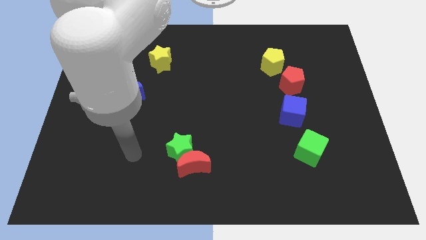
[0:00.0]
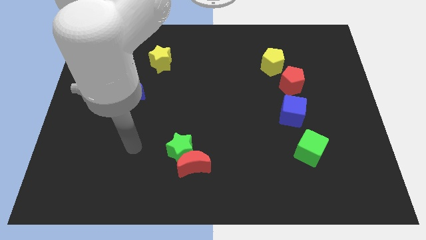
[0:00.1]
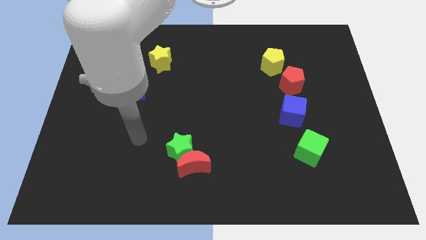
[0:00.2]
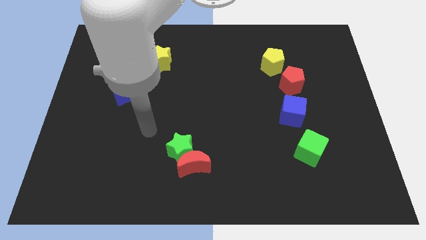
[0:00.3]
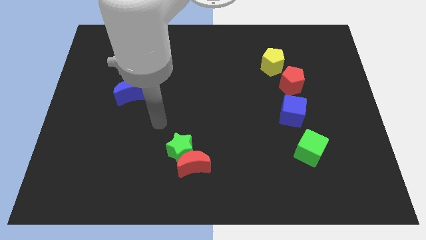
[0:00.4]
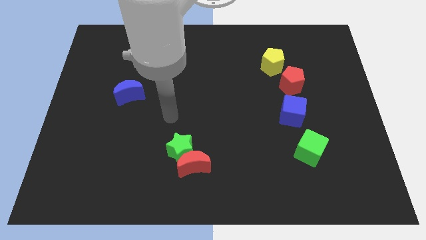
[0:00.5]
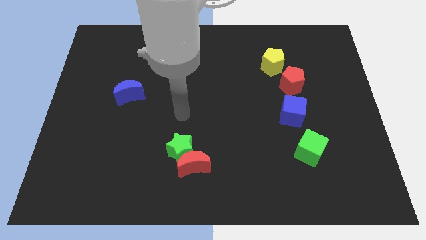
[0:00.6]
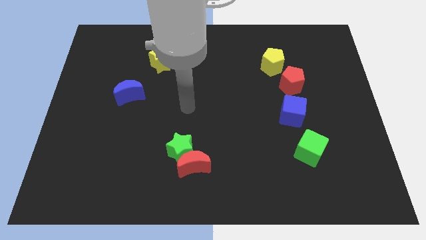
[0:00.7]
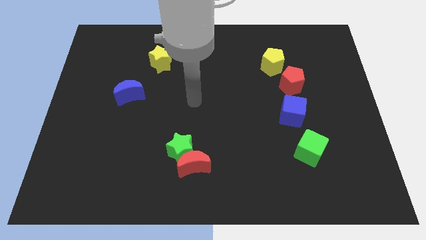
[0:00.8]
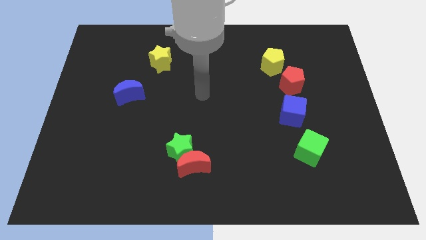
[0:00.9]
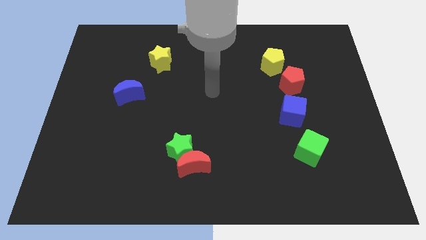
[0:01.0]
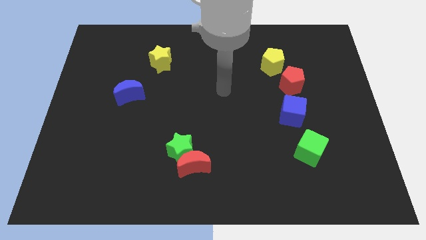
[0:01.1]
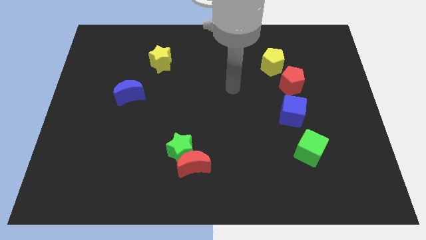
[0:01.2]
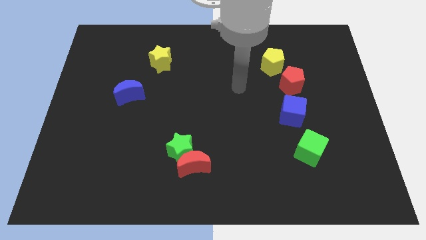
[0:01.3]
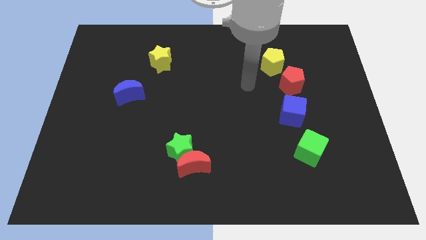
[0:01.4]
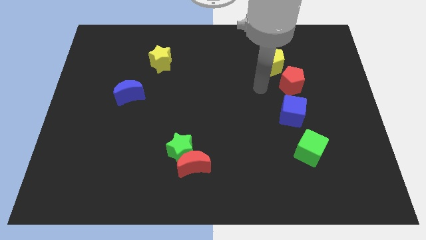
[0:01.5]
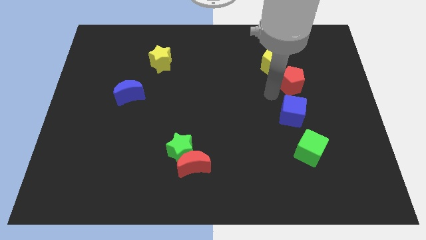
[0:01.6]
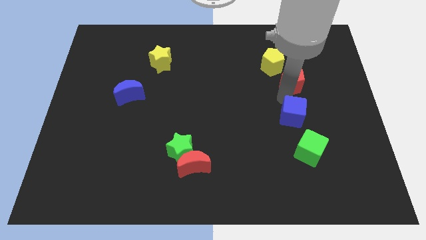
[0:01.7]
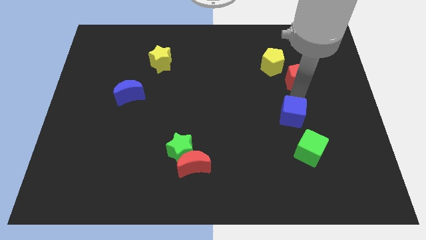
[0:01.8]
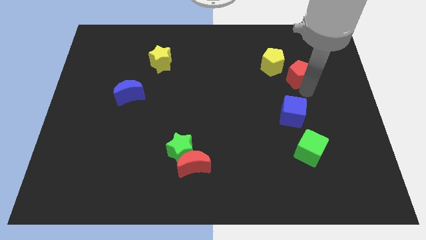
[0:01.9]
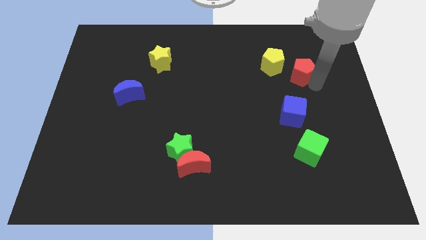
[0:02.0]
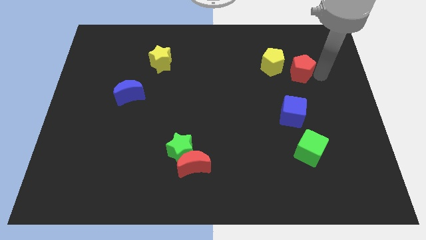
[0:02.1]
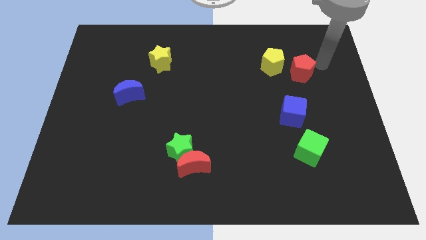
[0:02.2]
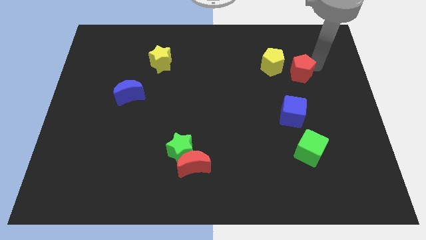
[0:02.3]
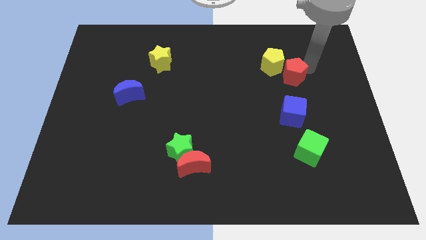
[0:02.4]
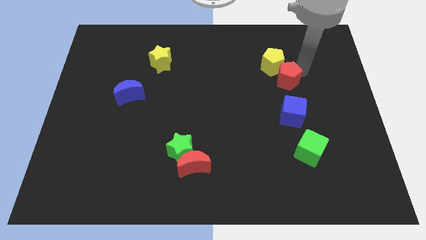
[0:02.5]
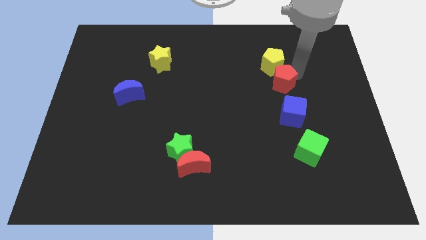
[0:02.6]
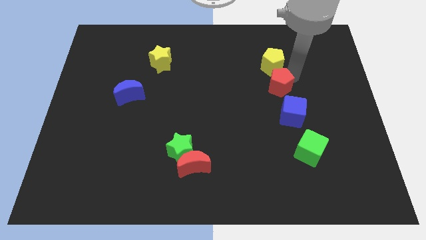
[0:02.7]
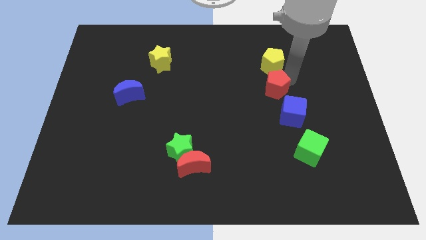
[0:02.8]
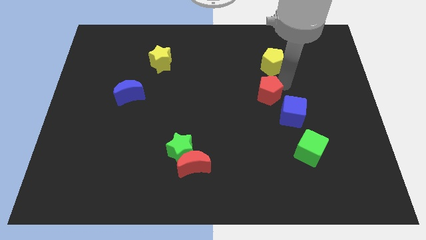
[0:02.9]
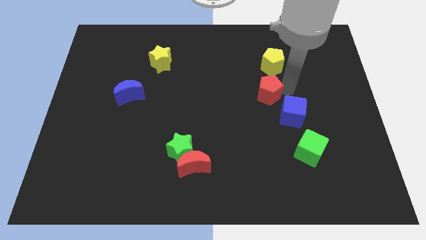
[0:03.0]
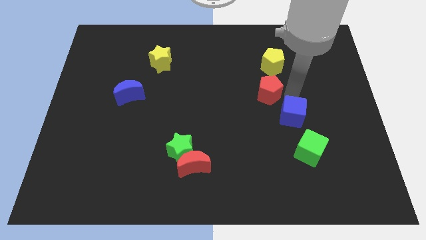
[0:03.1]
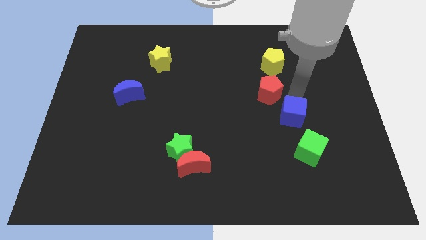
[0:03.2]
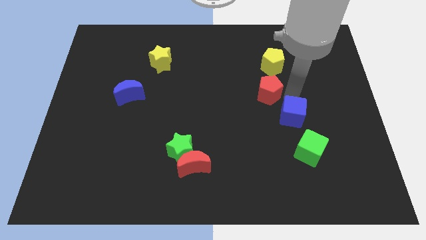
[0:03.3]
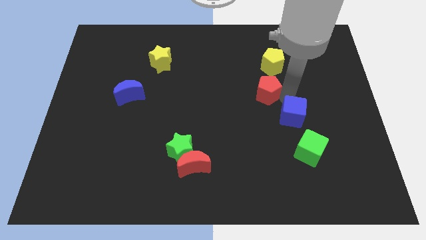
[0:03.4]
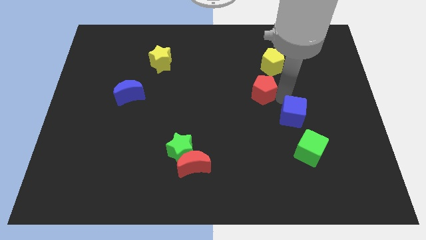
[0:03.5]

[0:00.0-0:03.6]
move the red pentagon a little left

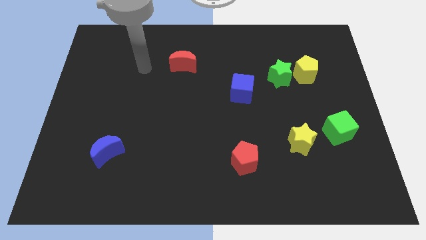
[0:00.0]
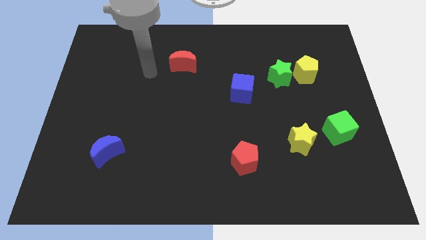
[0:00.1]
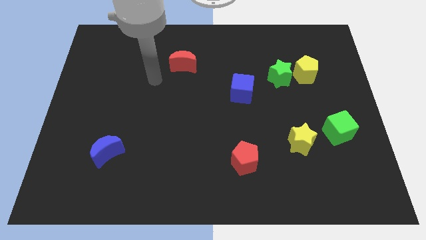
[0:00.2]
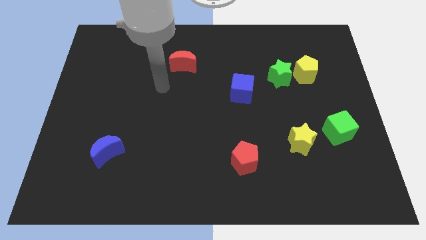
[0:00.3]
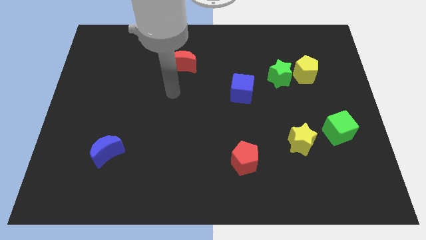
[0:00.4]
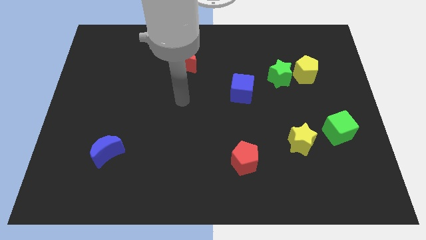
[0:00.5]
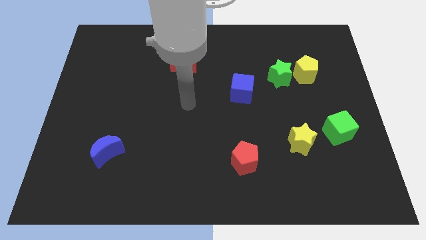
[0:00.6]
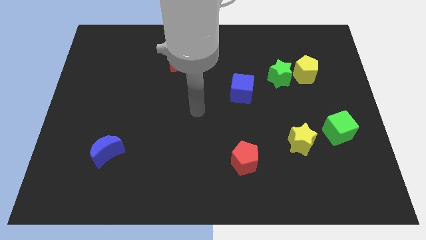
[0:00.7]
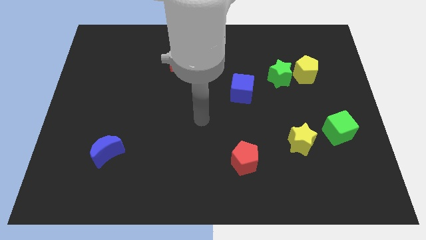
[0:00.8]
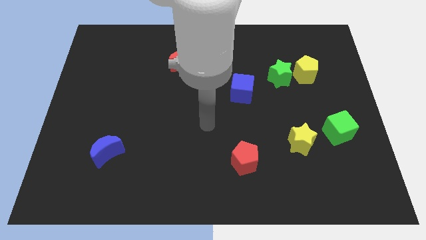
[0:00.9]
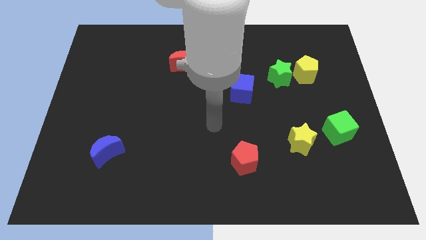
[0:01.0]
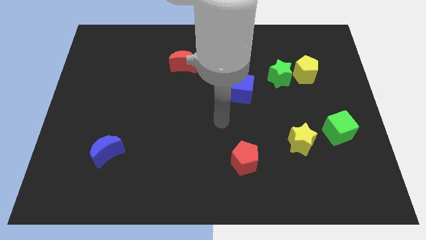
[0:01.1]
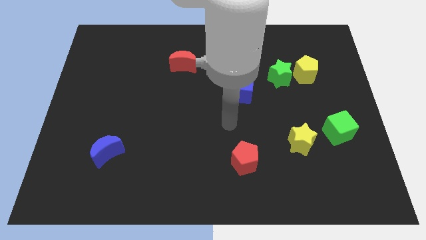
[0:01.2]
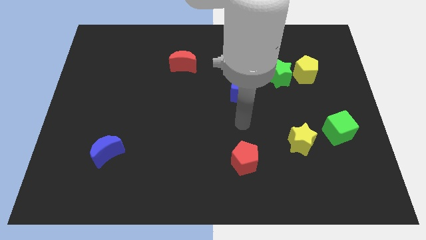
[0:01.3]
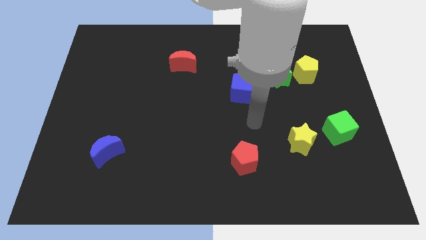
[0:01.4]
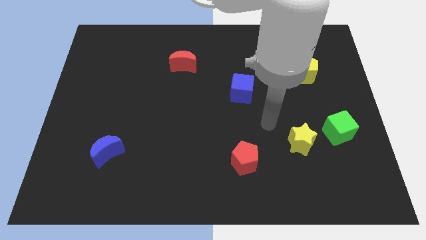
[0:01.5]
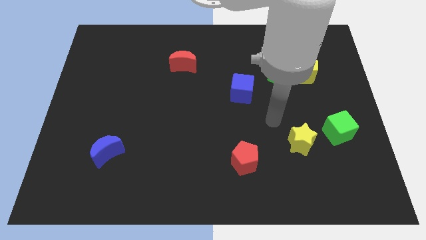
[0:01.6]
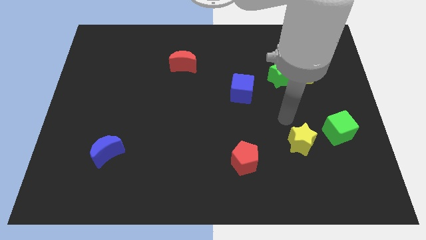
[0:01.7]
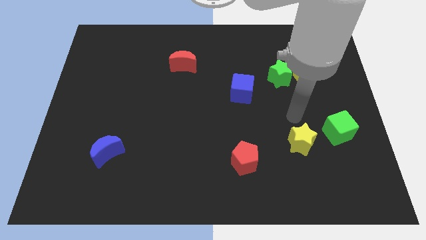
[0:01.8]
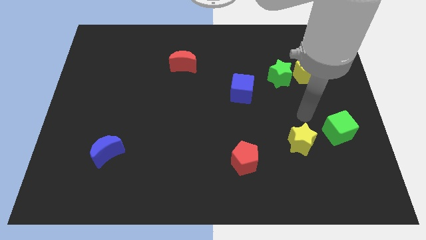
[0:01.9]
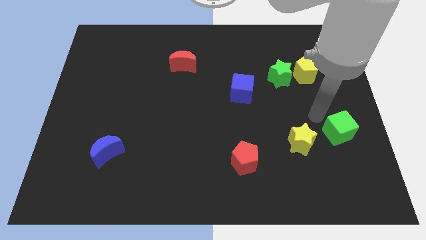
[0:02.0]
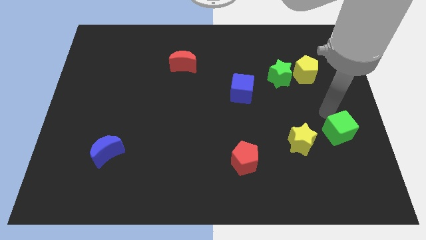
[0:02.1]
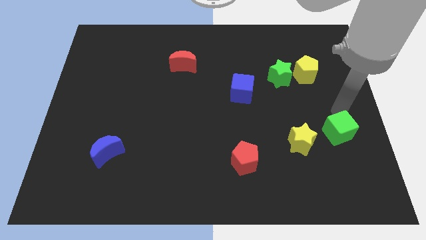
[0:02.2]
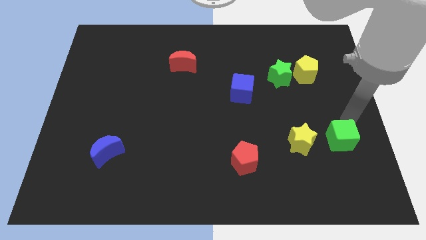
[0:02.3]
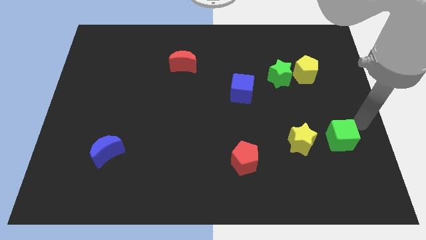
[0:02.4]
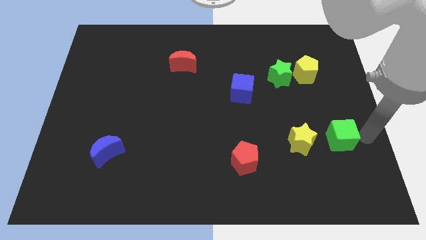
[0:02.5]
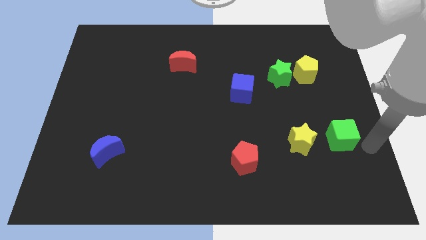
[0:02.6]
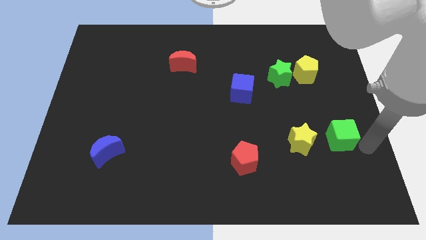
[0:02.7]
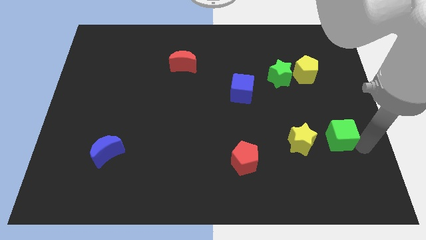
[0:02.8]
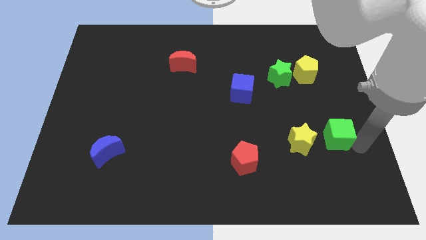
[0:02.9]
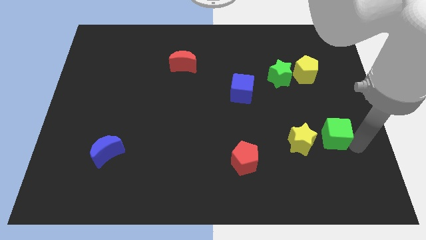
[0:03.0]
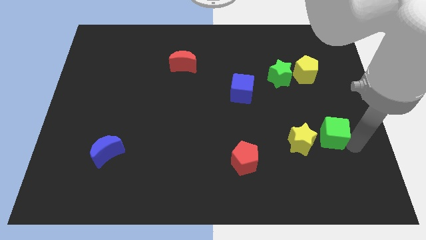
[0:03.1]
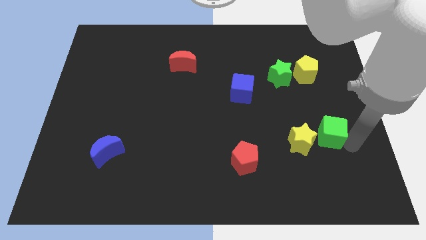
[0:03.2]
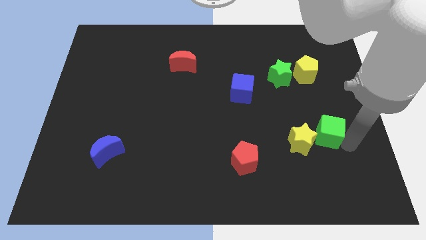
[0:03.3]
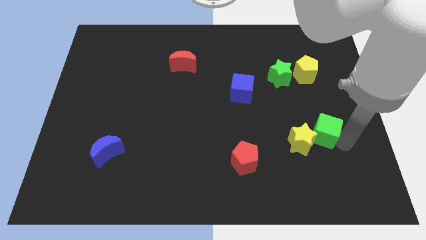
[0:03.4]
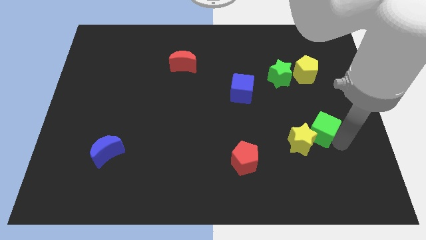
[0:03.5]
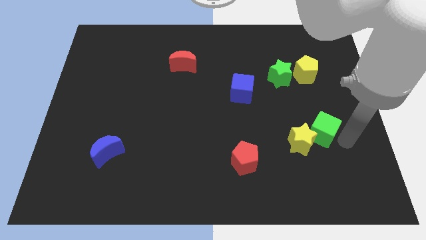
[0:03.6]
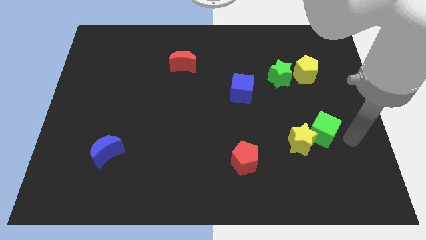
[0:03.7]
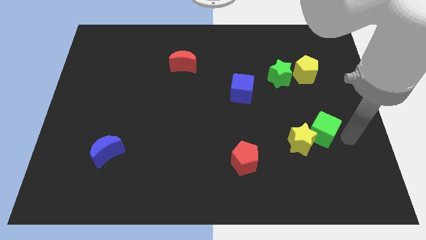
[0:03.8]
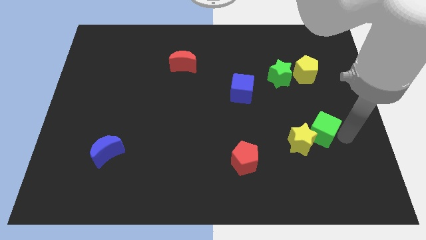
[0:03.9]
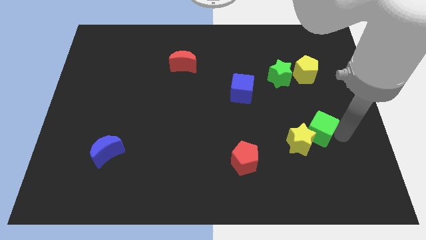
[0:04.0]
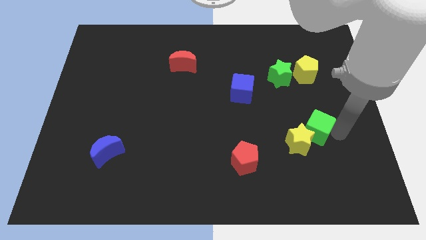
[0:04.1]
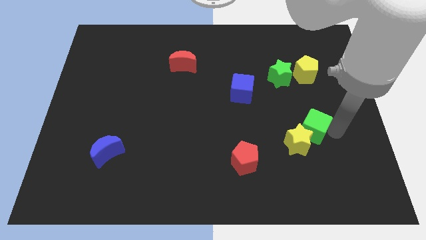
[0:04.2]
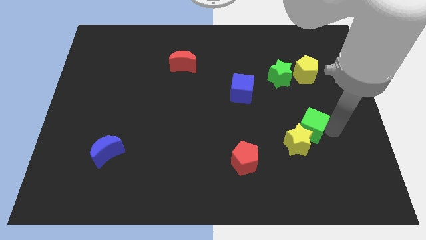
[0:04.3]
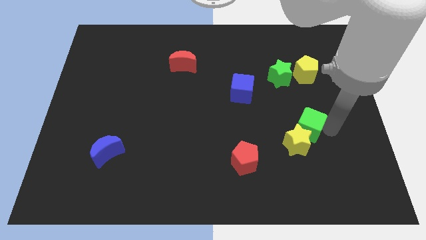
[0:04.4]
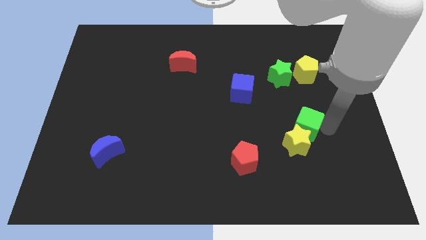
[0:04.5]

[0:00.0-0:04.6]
slightly slide the green cube to the left
